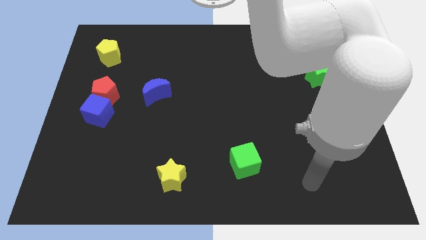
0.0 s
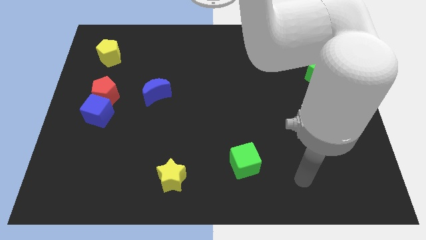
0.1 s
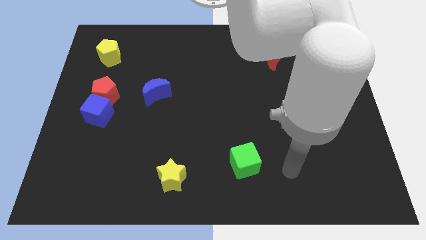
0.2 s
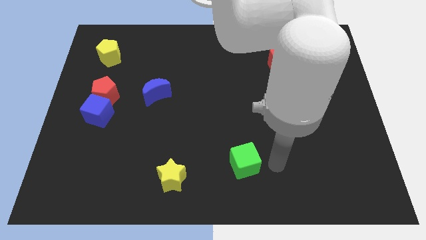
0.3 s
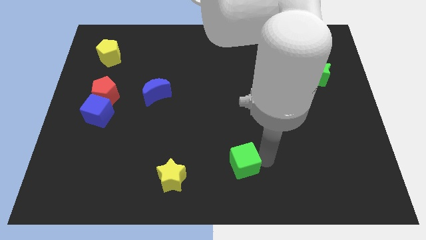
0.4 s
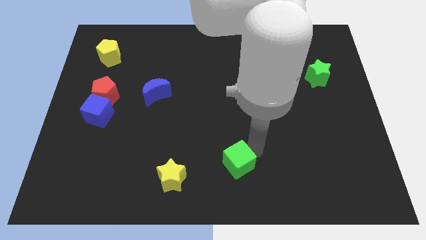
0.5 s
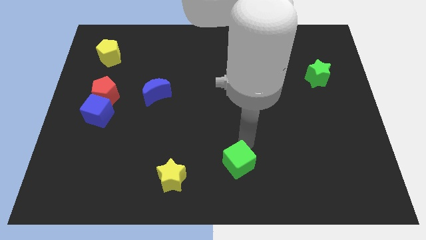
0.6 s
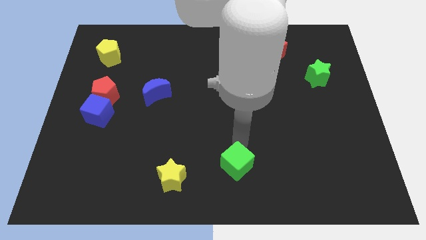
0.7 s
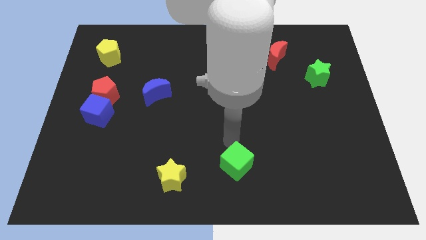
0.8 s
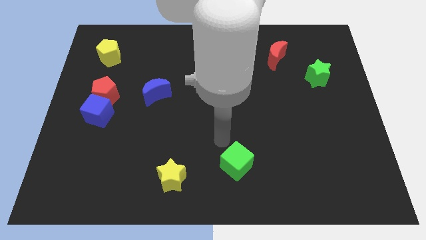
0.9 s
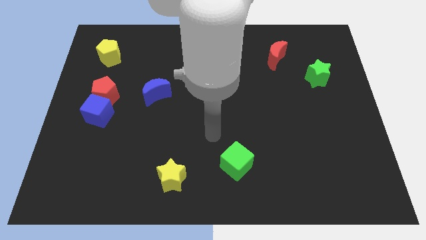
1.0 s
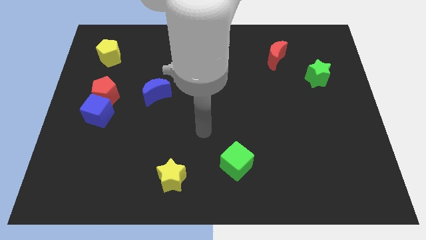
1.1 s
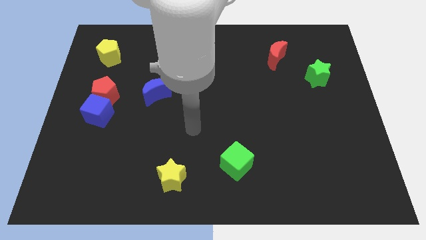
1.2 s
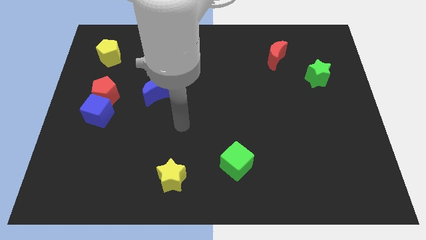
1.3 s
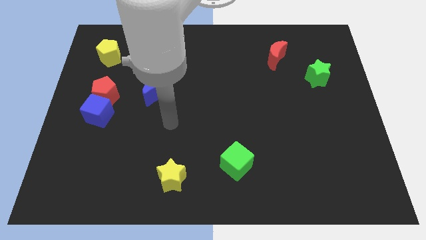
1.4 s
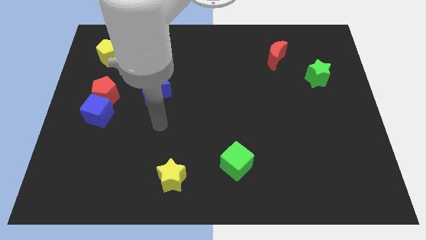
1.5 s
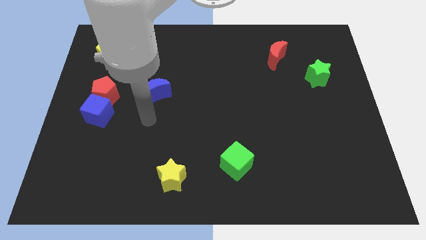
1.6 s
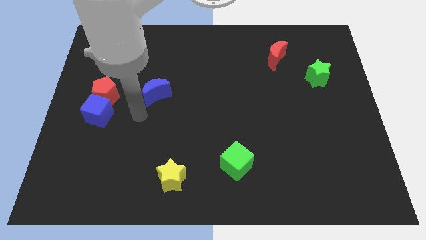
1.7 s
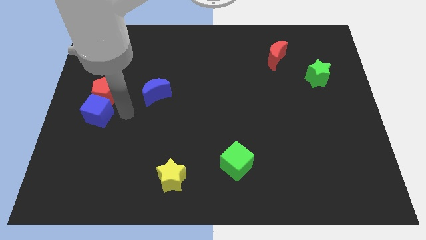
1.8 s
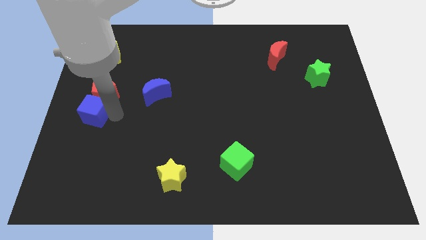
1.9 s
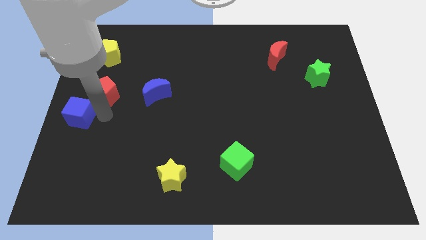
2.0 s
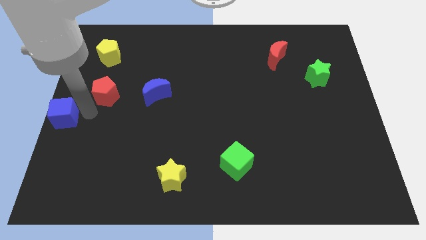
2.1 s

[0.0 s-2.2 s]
move the red pentagon away from the blue cube

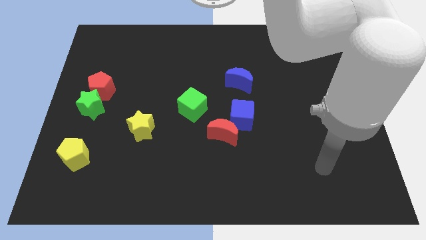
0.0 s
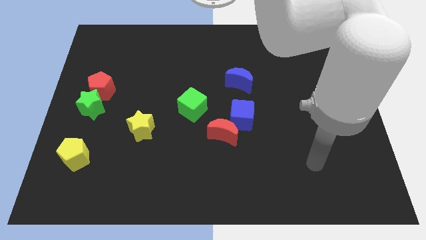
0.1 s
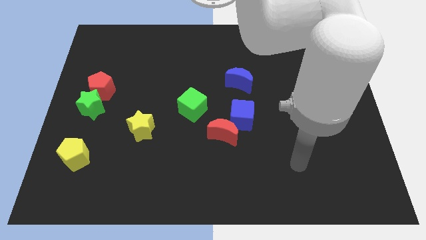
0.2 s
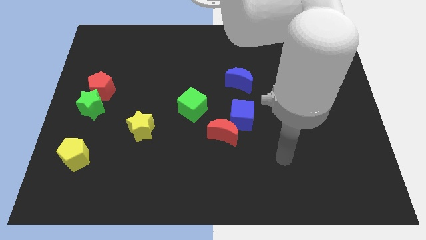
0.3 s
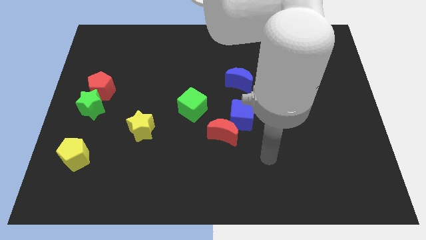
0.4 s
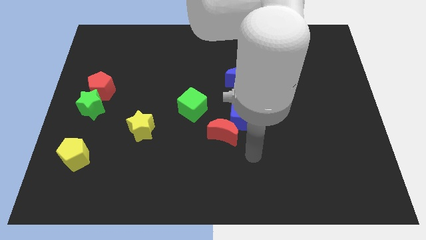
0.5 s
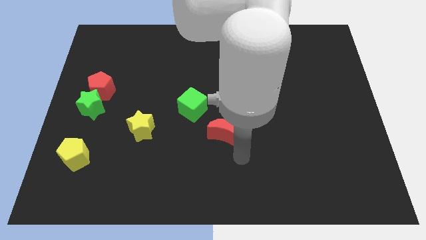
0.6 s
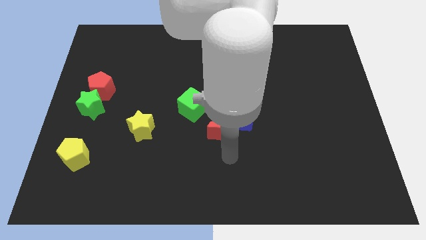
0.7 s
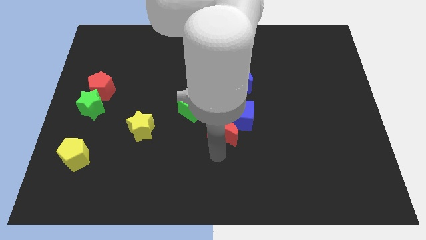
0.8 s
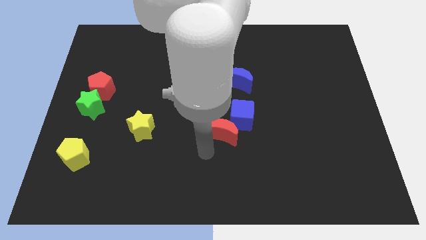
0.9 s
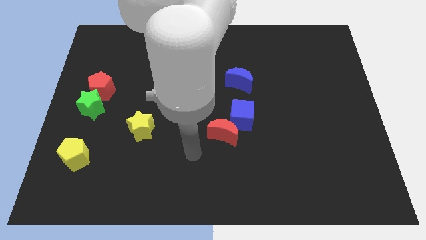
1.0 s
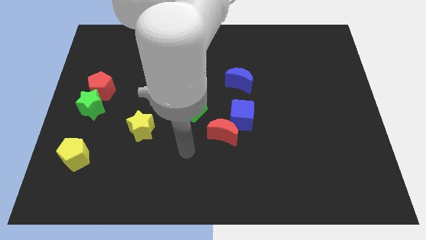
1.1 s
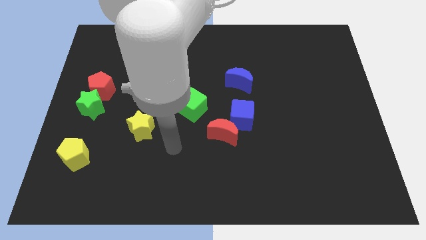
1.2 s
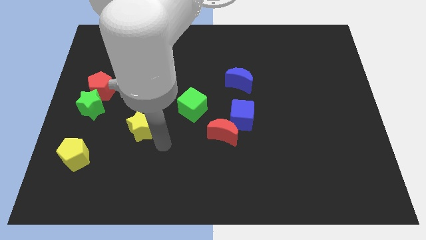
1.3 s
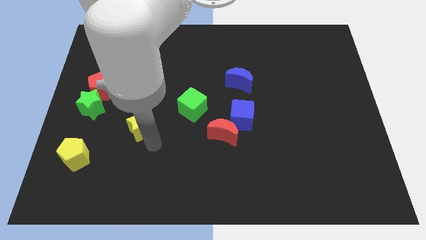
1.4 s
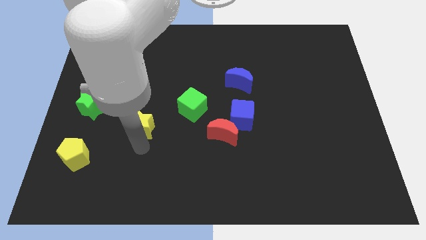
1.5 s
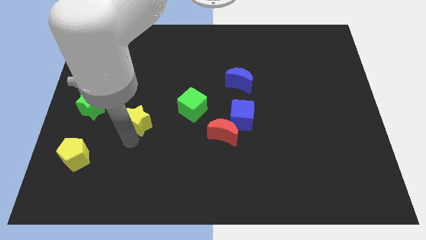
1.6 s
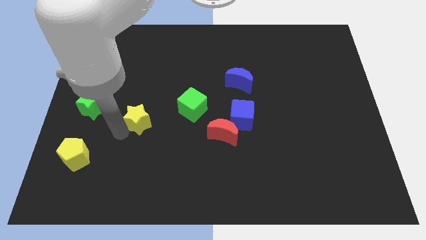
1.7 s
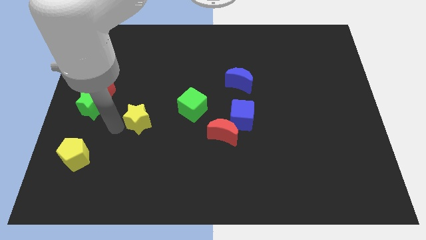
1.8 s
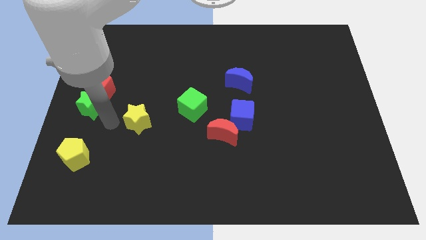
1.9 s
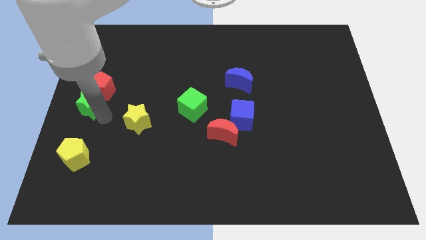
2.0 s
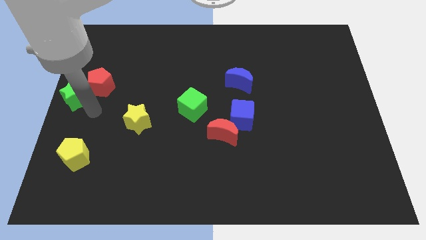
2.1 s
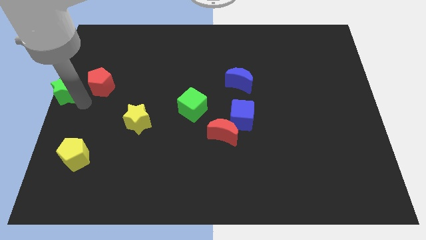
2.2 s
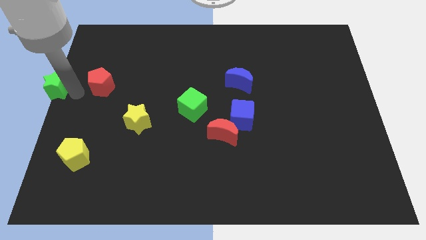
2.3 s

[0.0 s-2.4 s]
move the red pentagon away from the green star

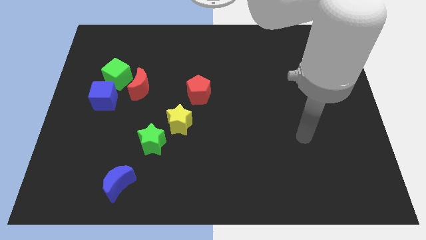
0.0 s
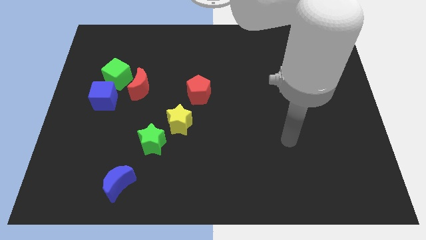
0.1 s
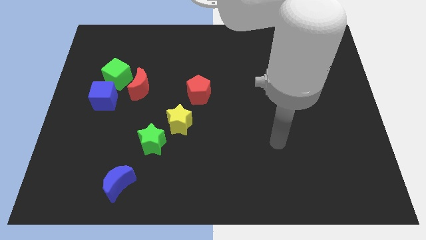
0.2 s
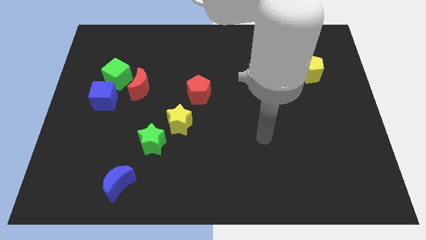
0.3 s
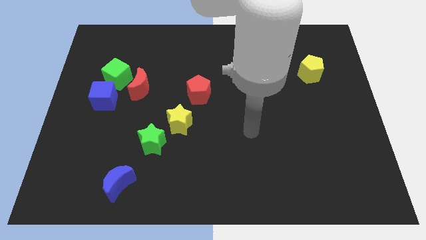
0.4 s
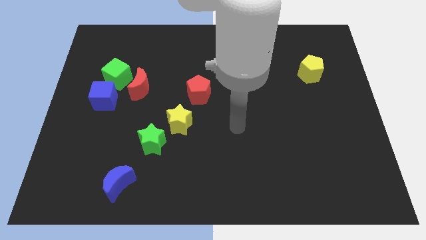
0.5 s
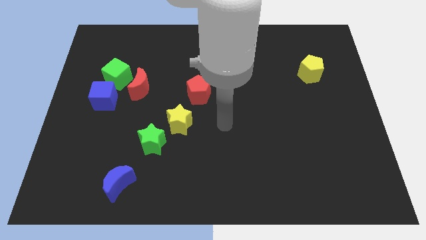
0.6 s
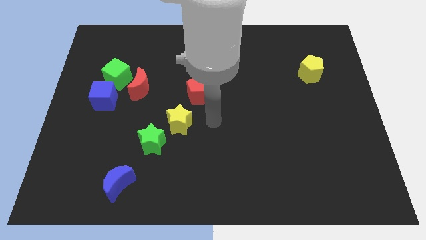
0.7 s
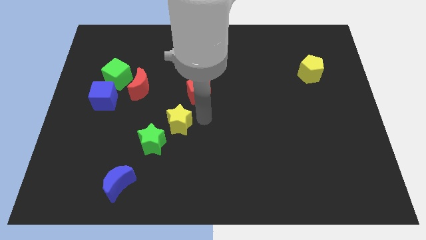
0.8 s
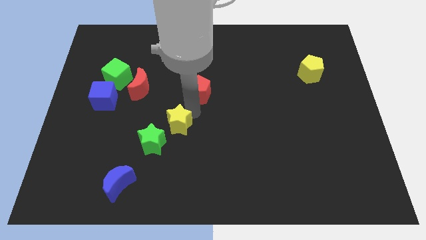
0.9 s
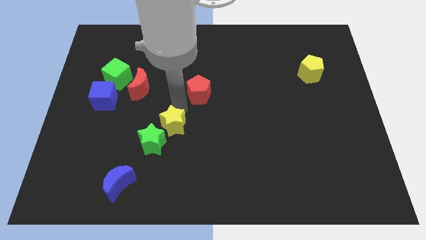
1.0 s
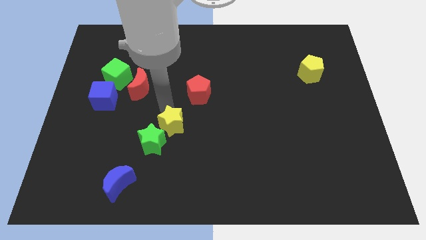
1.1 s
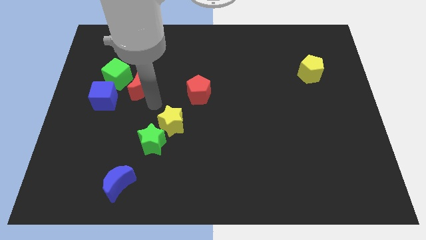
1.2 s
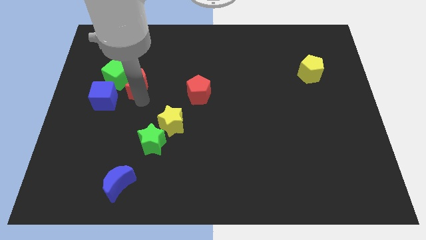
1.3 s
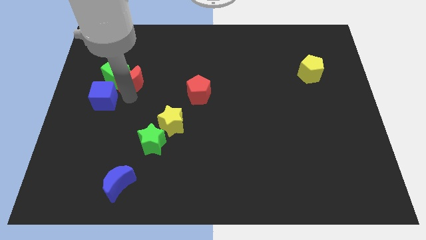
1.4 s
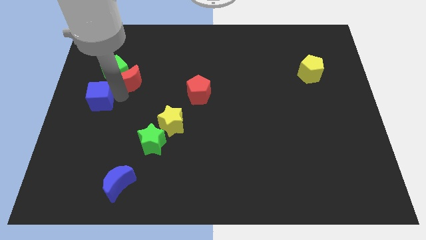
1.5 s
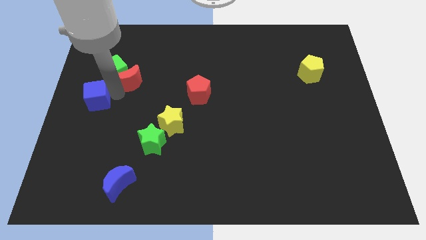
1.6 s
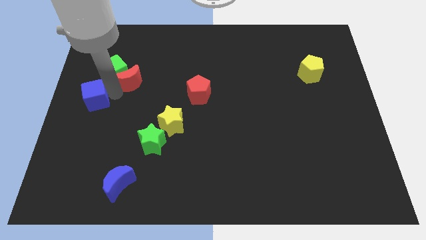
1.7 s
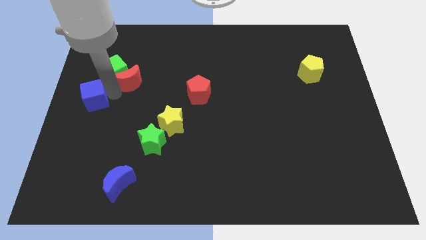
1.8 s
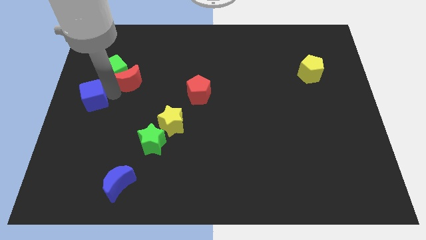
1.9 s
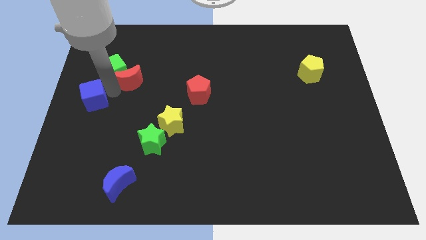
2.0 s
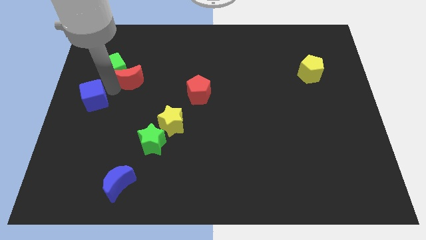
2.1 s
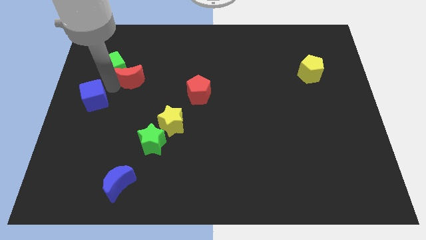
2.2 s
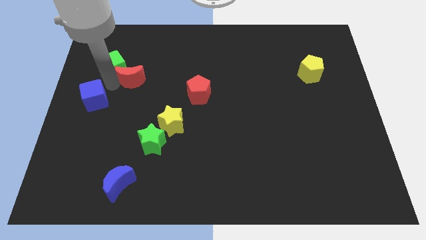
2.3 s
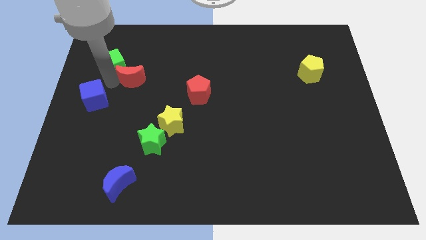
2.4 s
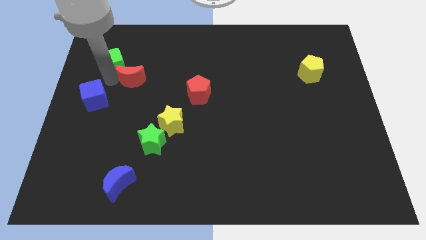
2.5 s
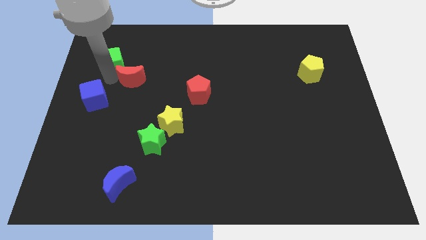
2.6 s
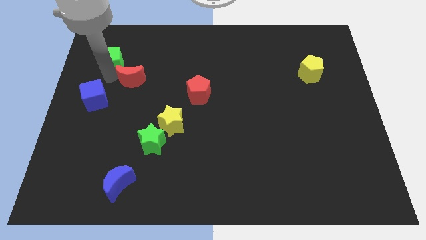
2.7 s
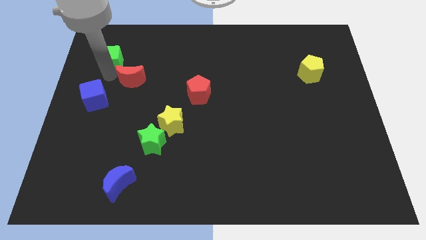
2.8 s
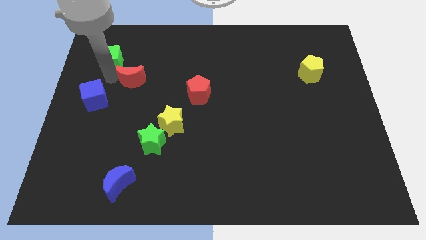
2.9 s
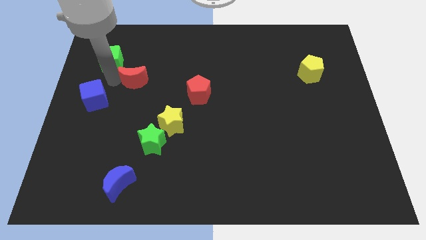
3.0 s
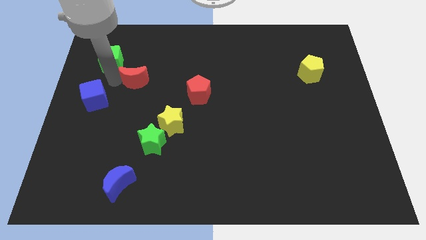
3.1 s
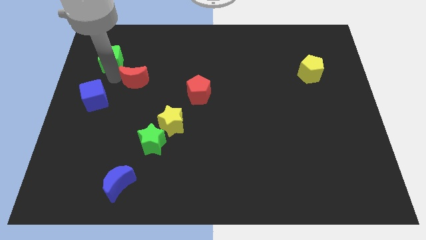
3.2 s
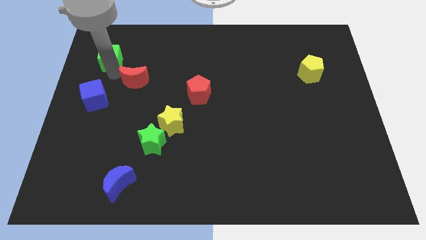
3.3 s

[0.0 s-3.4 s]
separate the green cube from the red moon and blue cube

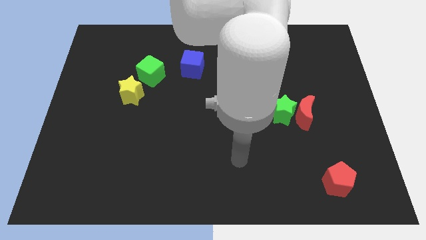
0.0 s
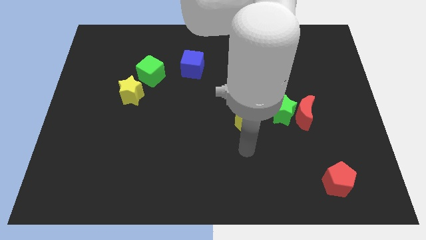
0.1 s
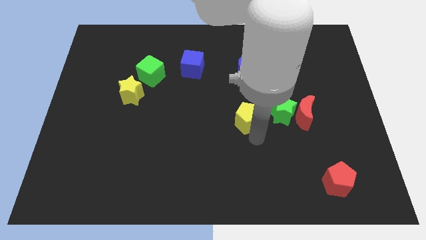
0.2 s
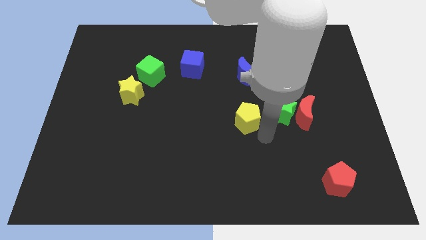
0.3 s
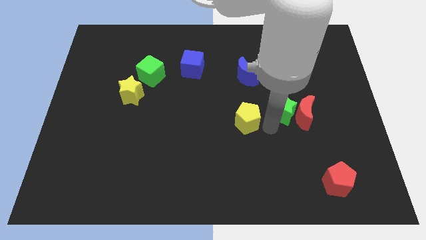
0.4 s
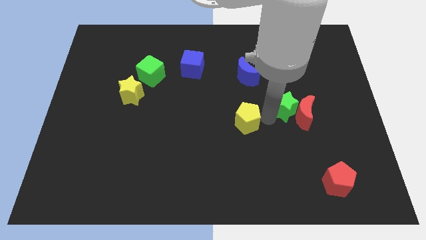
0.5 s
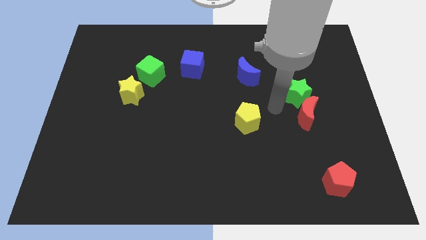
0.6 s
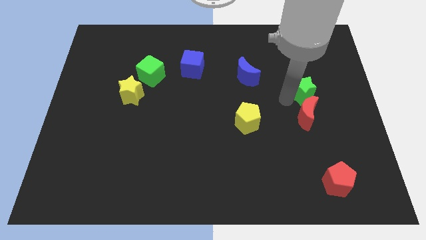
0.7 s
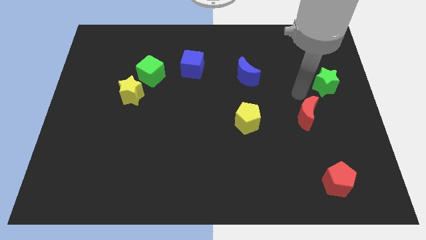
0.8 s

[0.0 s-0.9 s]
separate the red moon from the green star

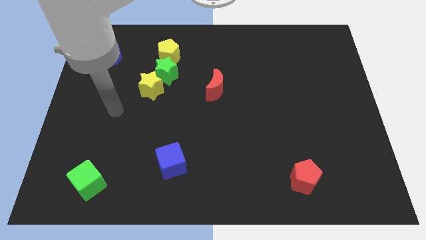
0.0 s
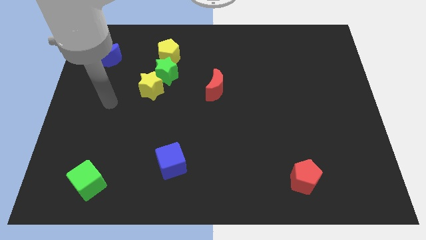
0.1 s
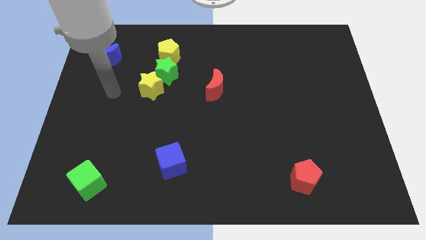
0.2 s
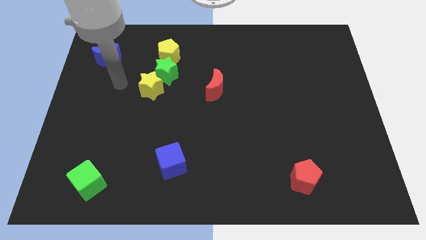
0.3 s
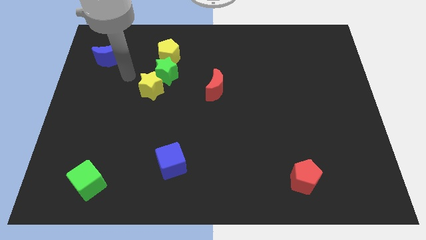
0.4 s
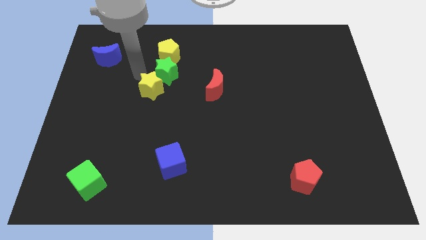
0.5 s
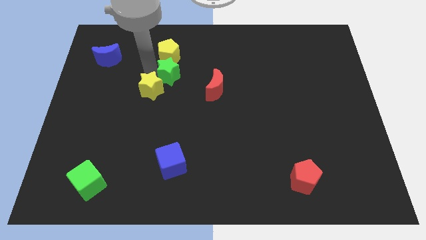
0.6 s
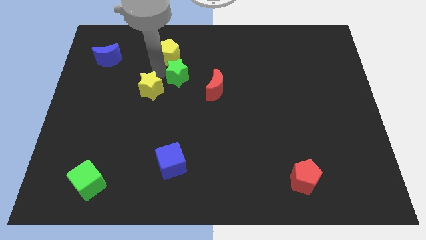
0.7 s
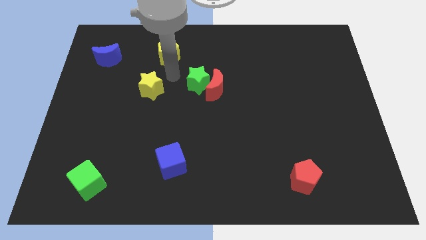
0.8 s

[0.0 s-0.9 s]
separate the yellow star from the green star
